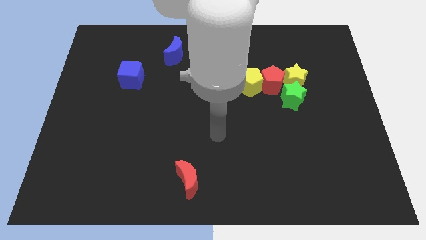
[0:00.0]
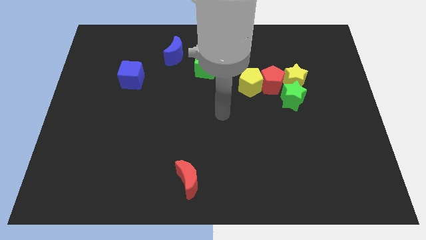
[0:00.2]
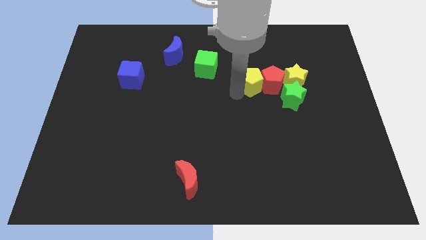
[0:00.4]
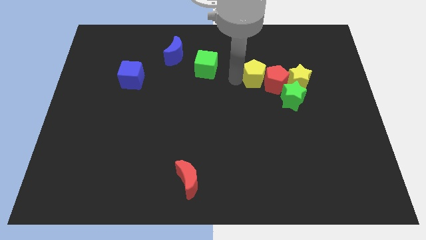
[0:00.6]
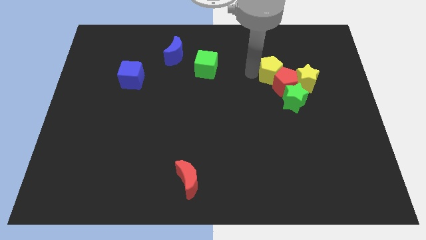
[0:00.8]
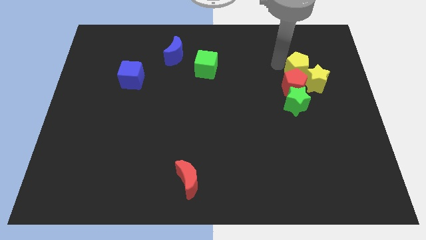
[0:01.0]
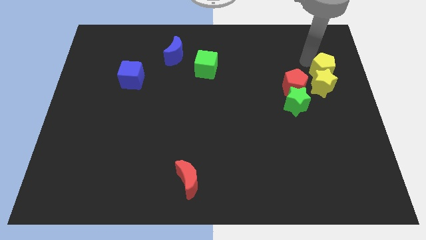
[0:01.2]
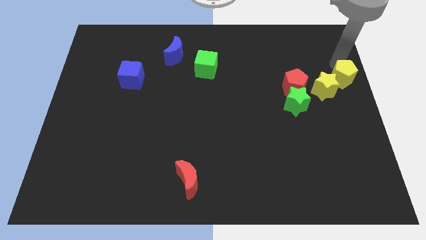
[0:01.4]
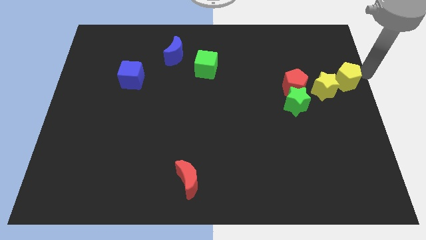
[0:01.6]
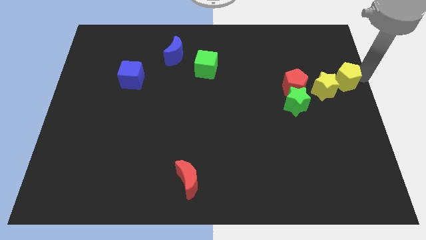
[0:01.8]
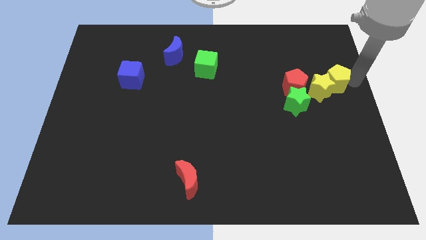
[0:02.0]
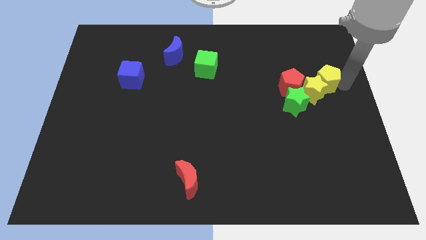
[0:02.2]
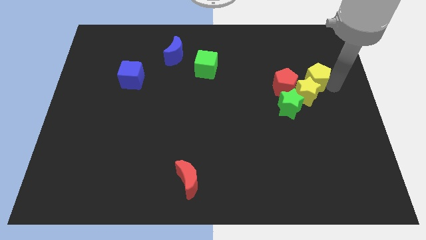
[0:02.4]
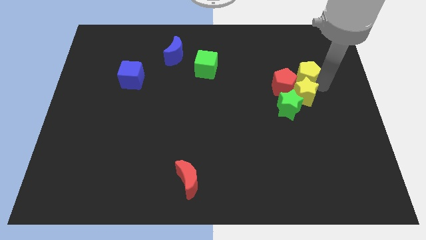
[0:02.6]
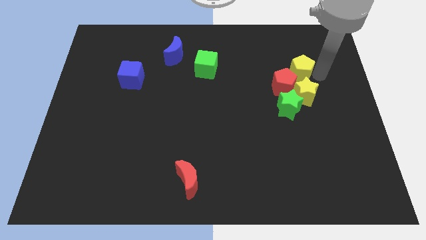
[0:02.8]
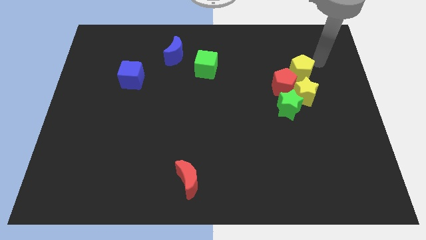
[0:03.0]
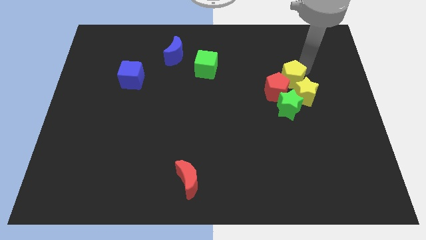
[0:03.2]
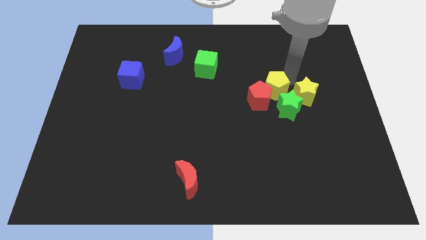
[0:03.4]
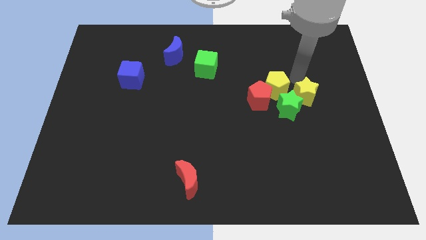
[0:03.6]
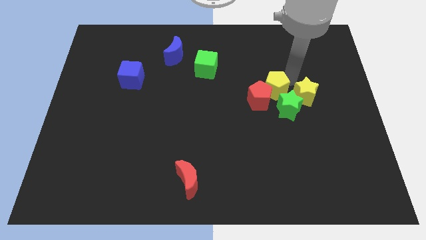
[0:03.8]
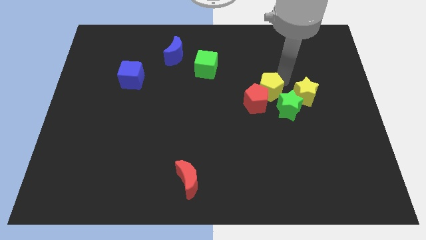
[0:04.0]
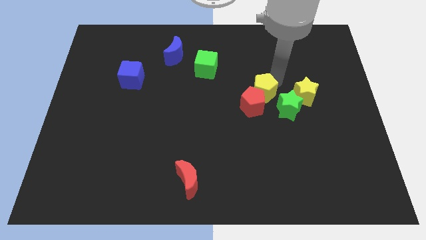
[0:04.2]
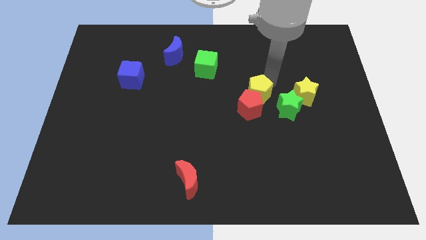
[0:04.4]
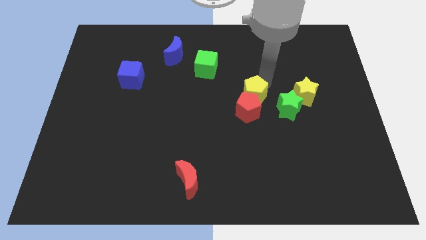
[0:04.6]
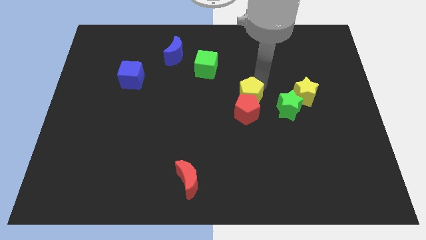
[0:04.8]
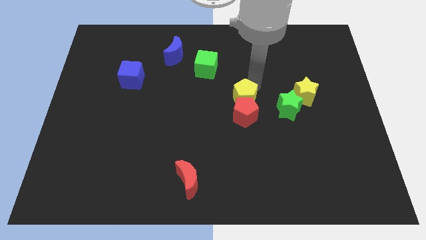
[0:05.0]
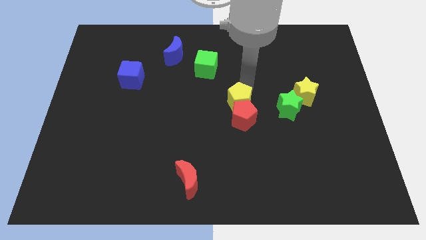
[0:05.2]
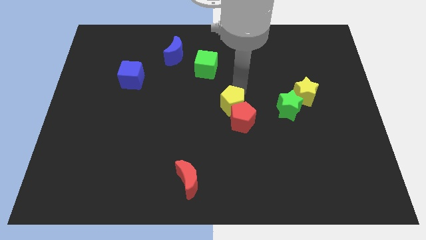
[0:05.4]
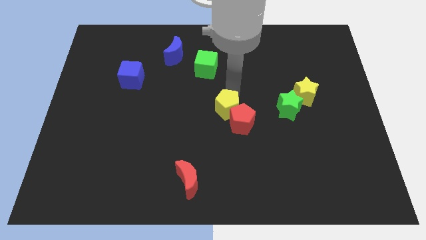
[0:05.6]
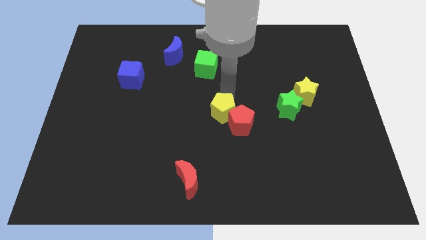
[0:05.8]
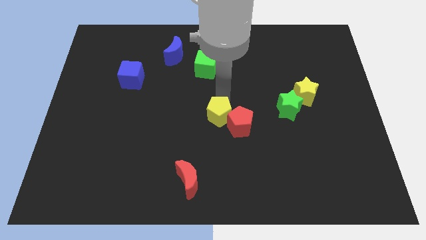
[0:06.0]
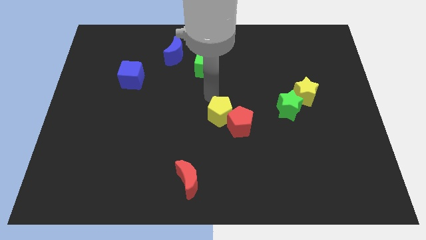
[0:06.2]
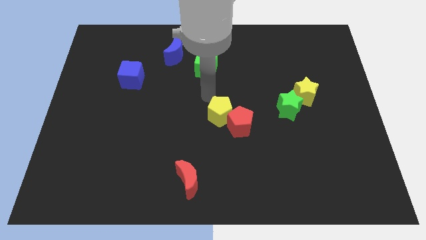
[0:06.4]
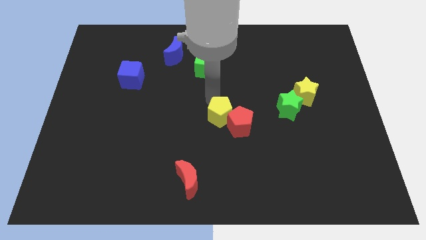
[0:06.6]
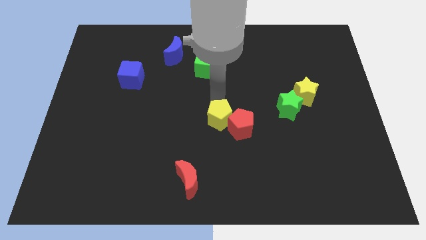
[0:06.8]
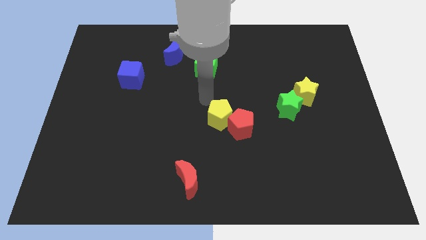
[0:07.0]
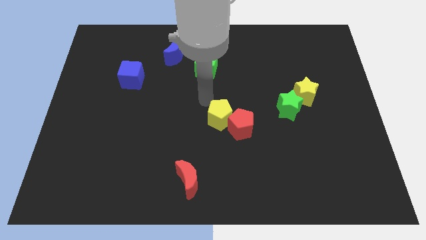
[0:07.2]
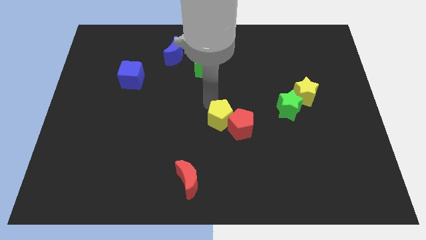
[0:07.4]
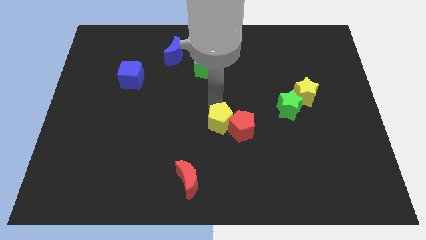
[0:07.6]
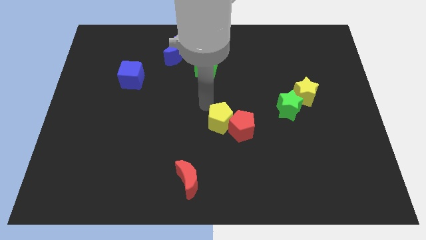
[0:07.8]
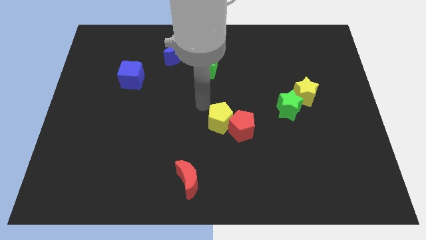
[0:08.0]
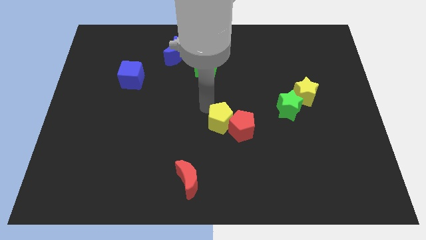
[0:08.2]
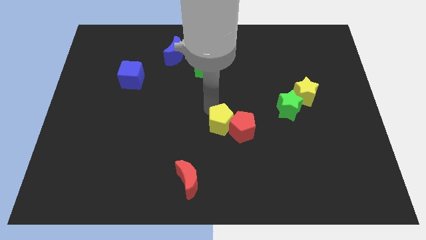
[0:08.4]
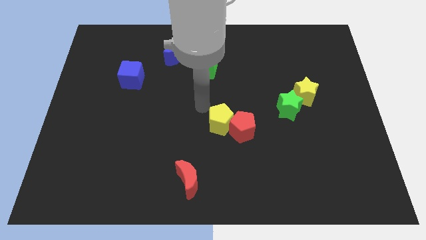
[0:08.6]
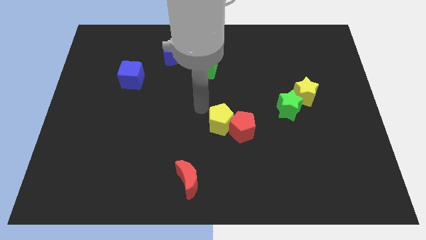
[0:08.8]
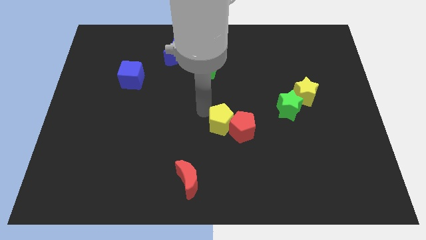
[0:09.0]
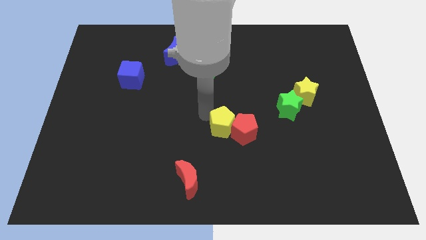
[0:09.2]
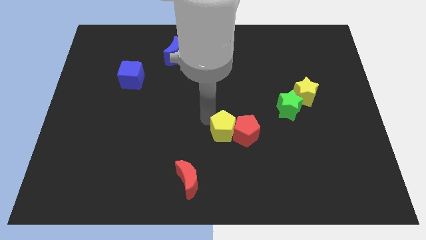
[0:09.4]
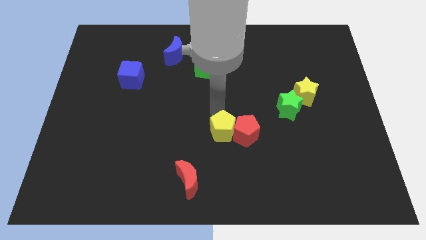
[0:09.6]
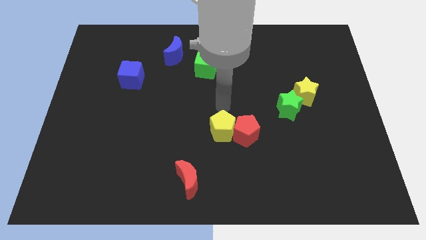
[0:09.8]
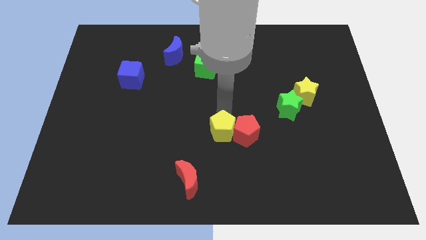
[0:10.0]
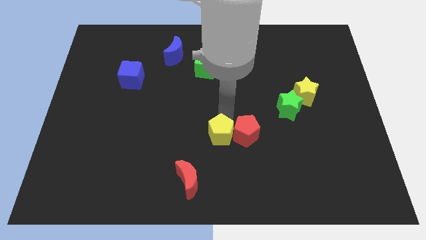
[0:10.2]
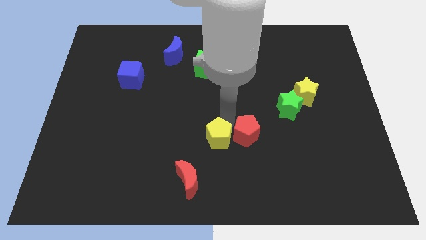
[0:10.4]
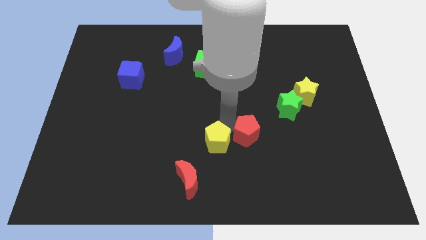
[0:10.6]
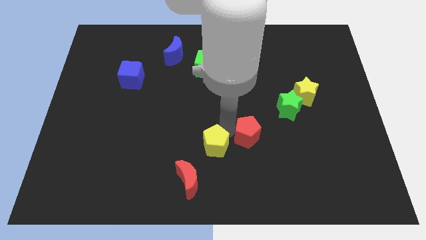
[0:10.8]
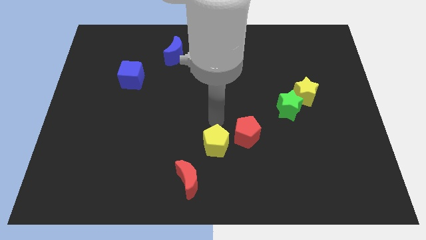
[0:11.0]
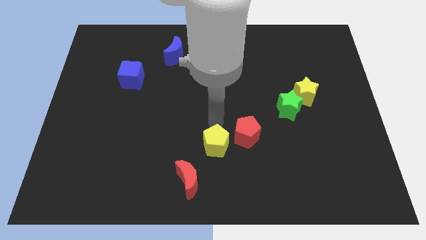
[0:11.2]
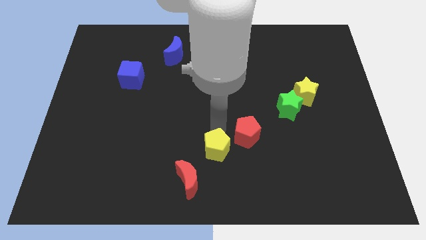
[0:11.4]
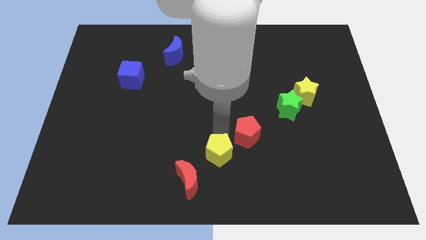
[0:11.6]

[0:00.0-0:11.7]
put the yellow pentagon to the bottom side
